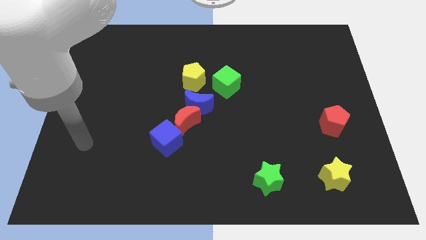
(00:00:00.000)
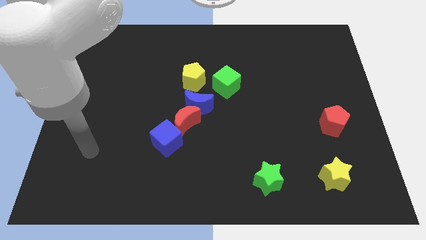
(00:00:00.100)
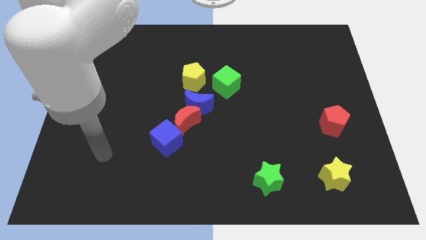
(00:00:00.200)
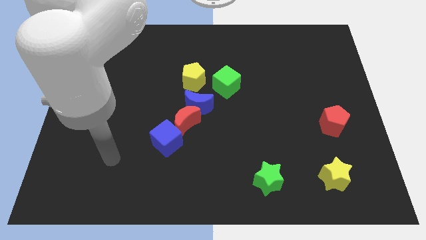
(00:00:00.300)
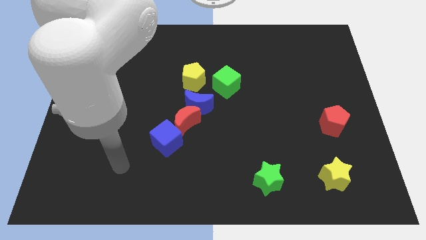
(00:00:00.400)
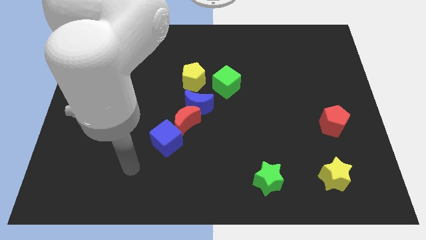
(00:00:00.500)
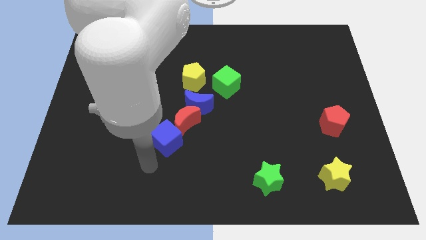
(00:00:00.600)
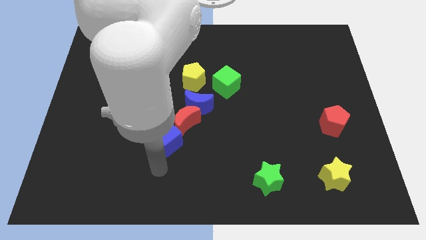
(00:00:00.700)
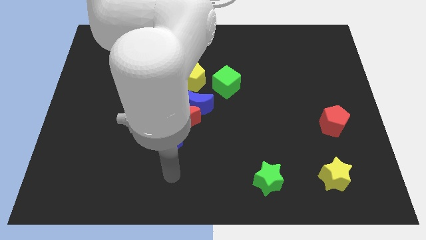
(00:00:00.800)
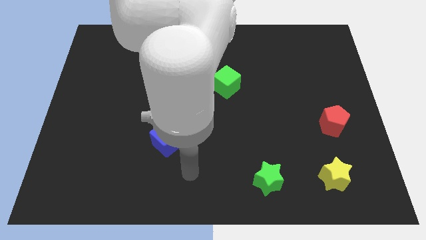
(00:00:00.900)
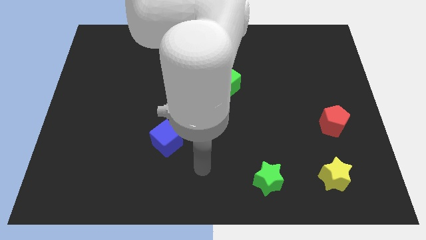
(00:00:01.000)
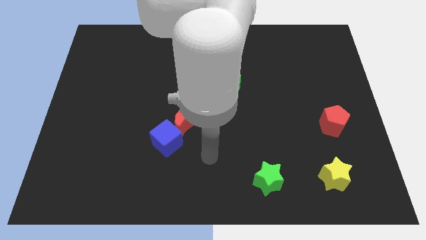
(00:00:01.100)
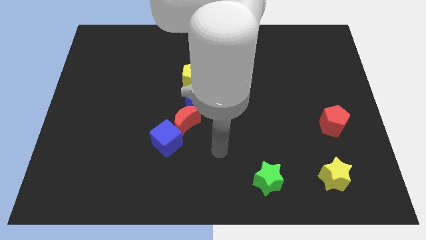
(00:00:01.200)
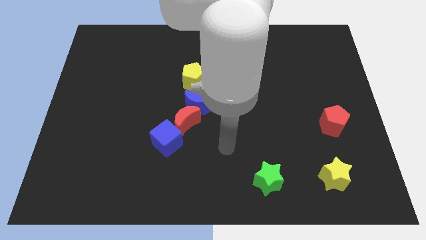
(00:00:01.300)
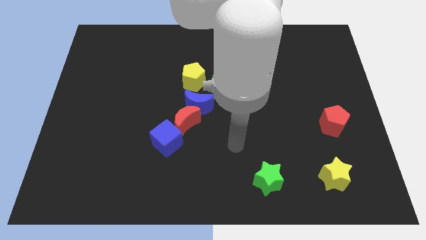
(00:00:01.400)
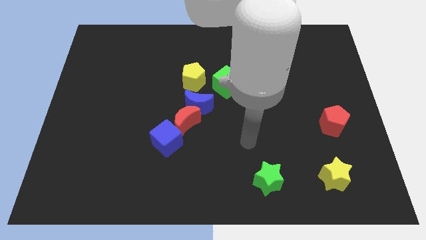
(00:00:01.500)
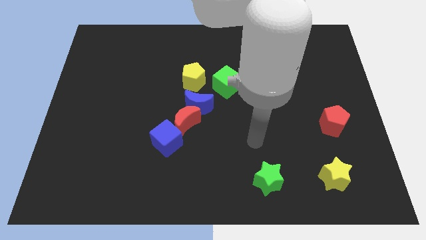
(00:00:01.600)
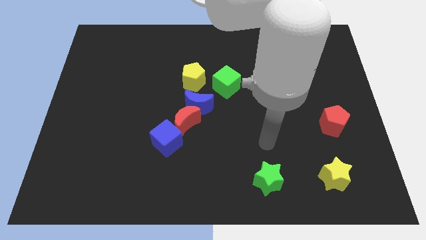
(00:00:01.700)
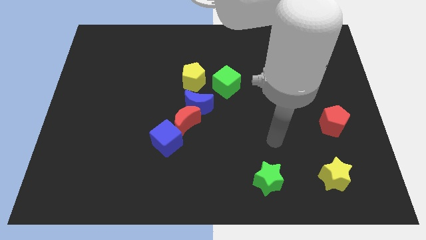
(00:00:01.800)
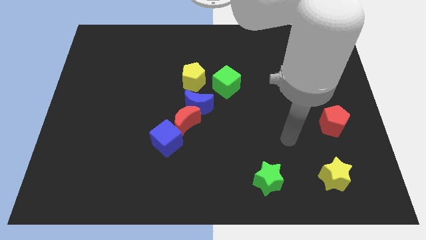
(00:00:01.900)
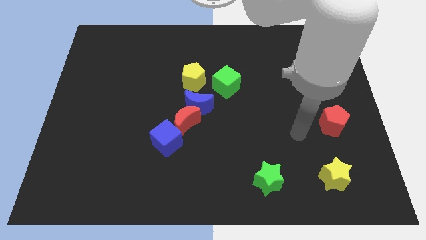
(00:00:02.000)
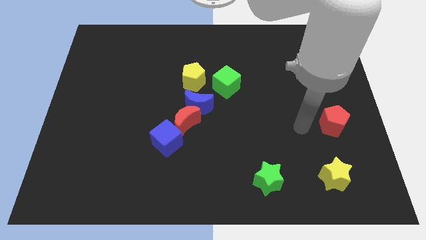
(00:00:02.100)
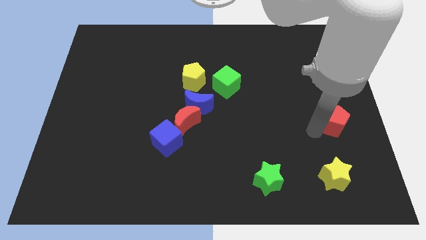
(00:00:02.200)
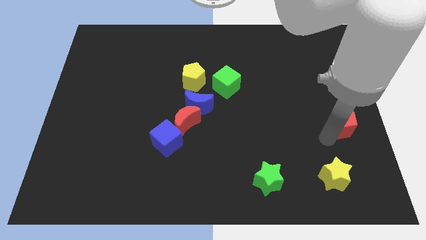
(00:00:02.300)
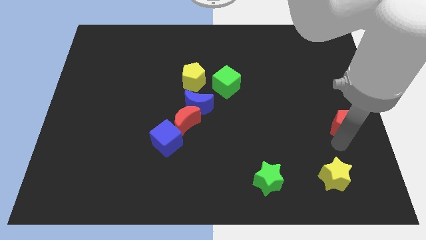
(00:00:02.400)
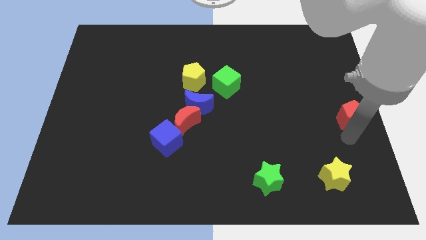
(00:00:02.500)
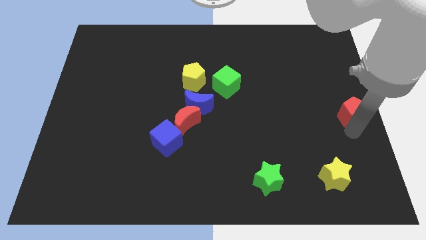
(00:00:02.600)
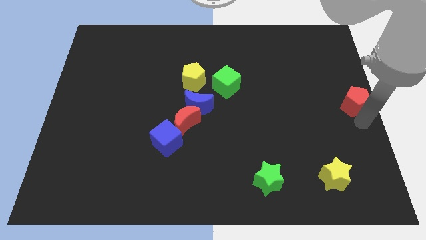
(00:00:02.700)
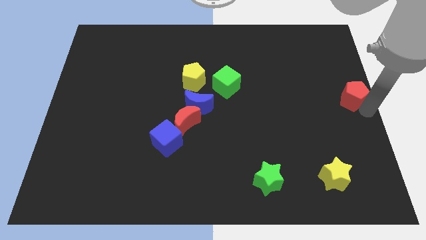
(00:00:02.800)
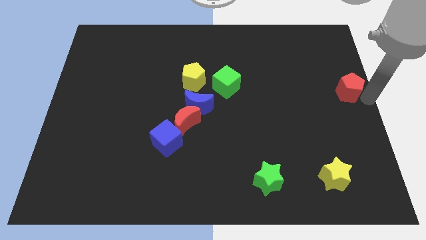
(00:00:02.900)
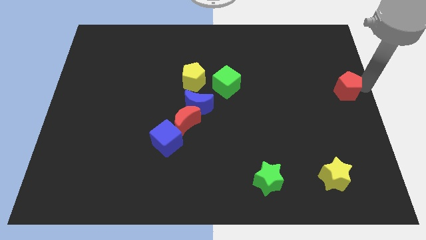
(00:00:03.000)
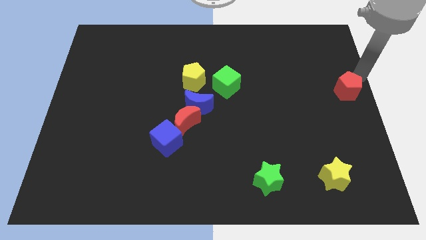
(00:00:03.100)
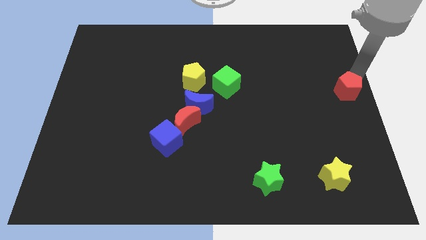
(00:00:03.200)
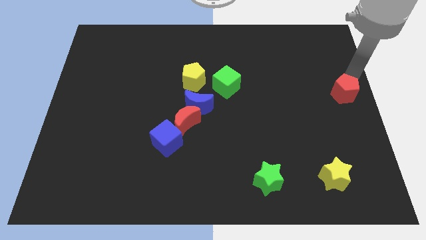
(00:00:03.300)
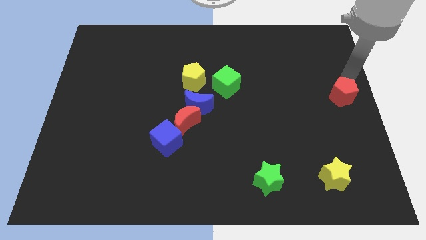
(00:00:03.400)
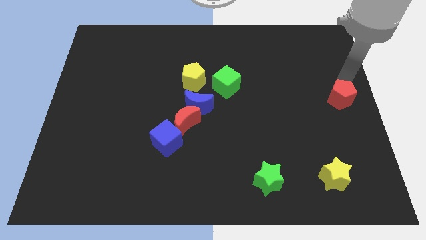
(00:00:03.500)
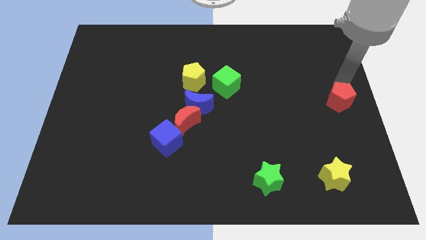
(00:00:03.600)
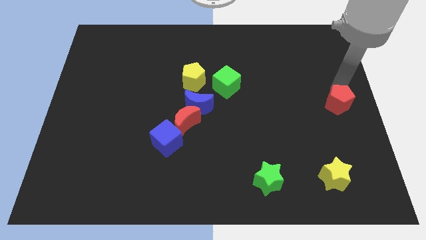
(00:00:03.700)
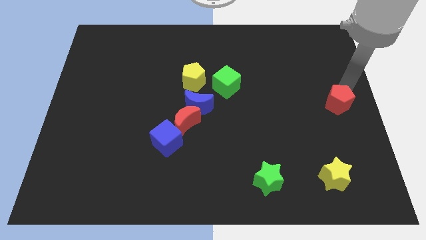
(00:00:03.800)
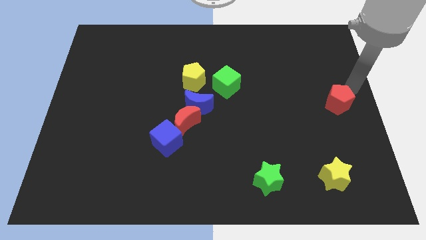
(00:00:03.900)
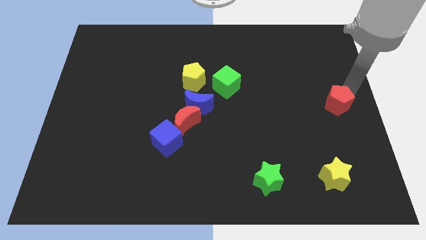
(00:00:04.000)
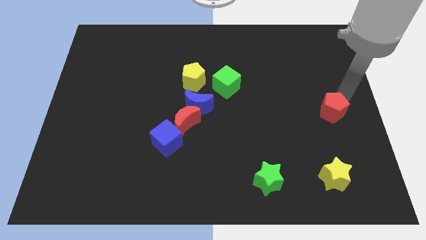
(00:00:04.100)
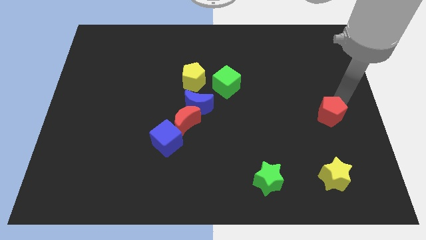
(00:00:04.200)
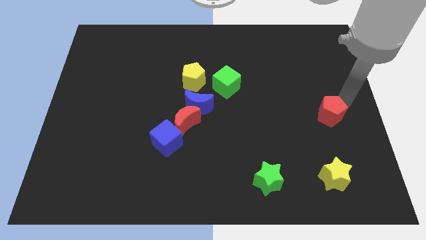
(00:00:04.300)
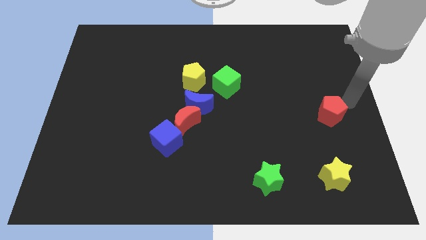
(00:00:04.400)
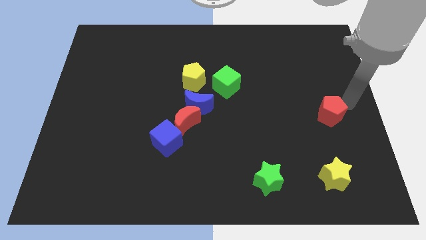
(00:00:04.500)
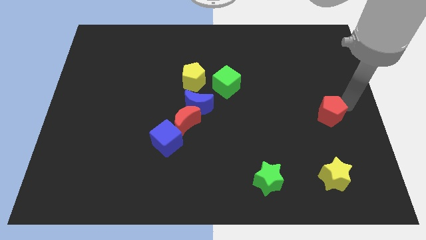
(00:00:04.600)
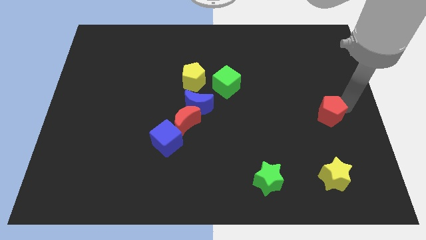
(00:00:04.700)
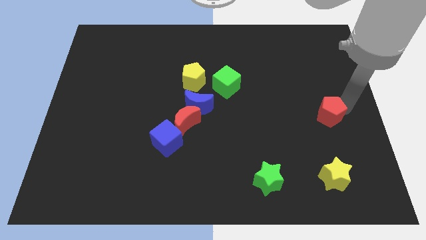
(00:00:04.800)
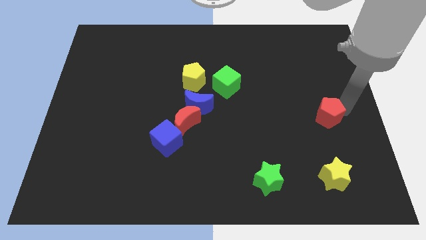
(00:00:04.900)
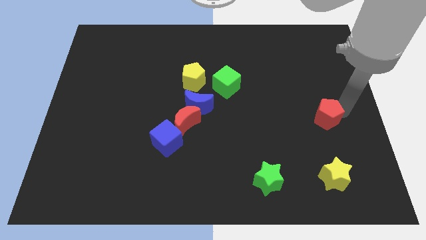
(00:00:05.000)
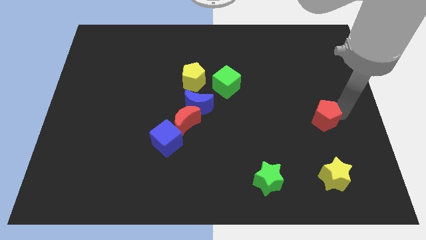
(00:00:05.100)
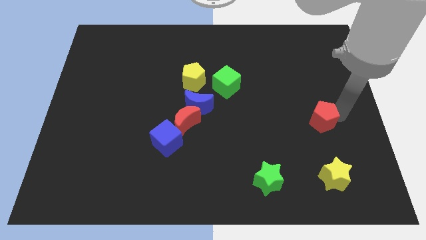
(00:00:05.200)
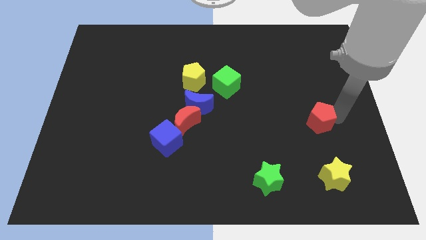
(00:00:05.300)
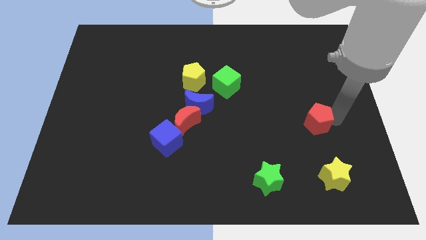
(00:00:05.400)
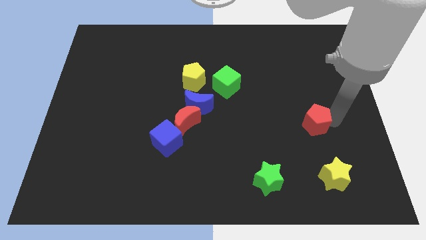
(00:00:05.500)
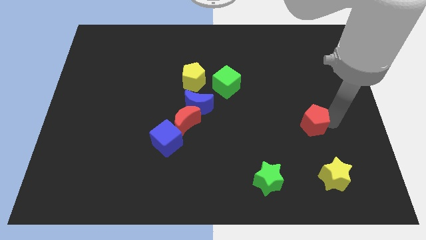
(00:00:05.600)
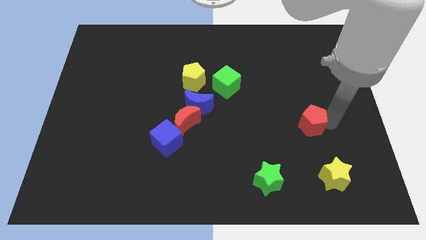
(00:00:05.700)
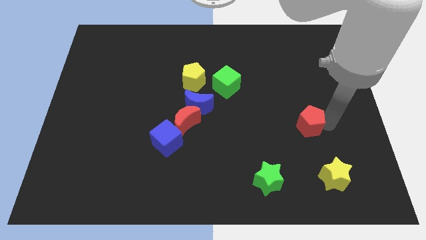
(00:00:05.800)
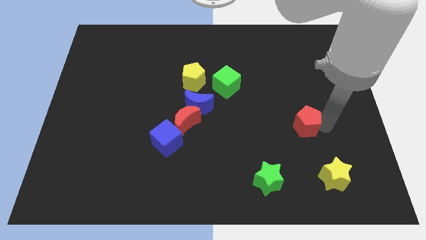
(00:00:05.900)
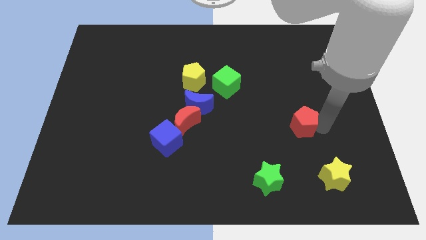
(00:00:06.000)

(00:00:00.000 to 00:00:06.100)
slide the red pentagon a little bit left

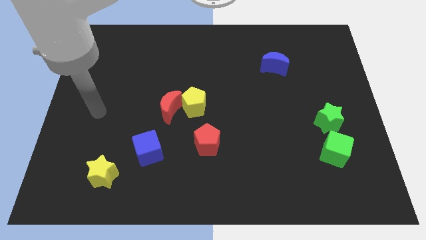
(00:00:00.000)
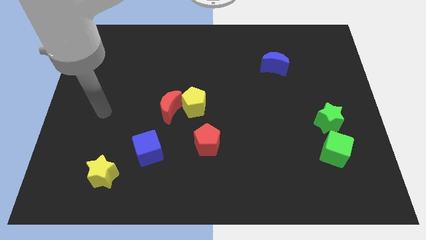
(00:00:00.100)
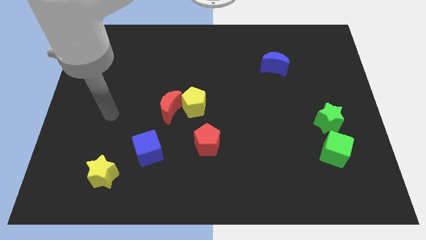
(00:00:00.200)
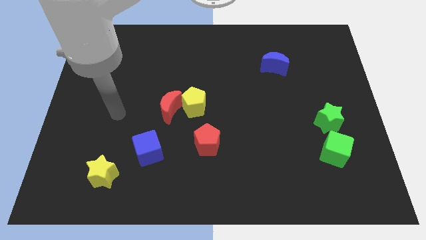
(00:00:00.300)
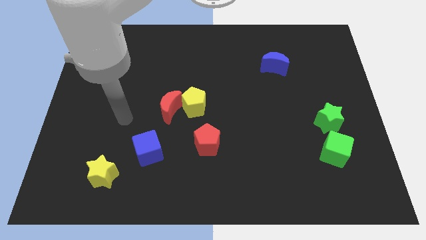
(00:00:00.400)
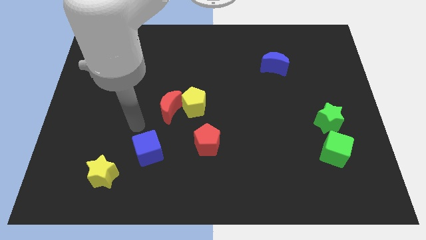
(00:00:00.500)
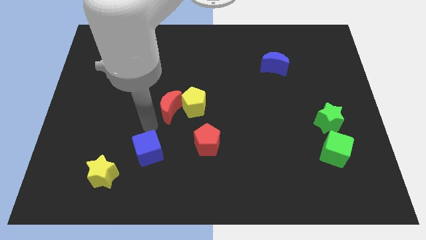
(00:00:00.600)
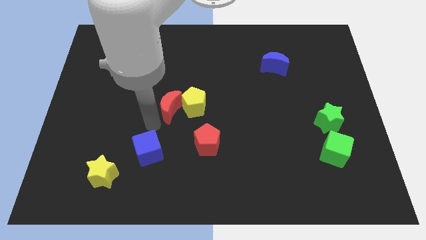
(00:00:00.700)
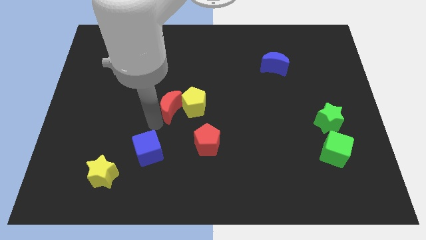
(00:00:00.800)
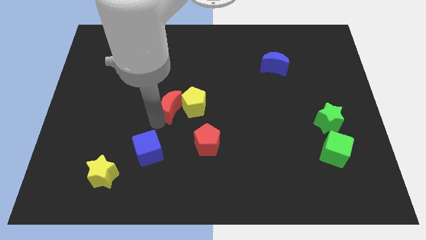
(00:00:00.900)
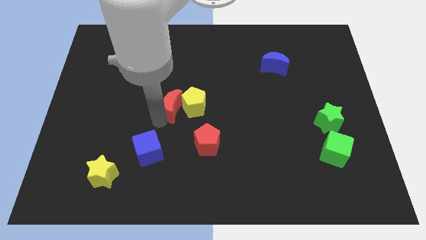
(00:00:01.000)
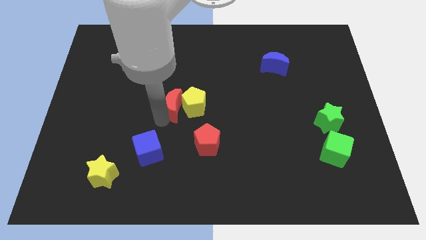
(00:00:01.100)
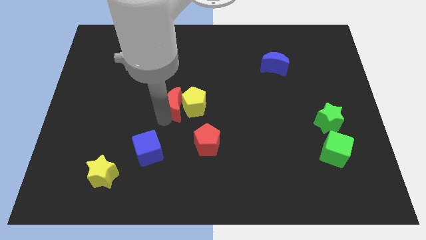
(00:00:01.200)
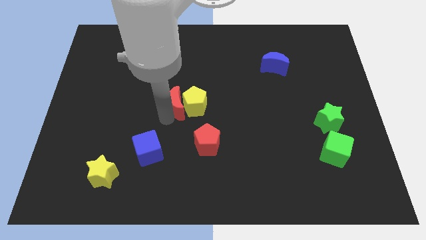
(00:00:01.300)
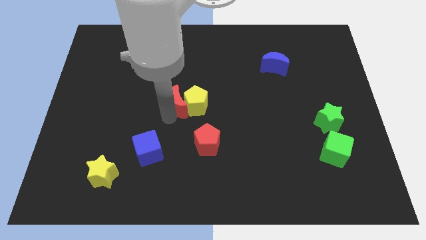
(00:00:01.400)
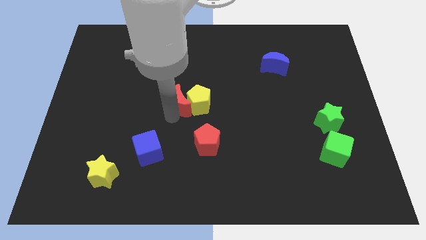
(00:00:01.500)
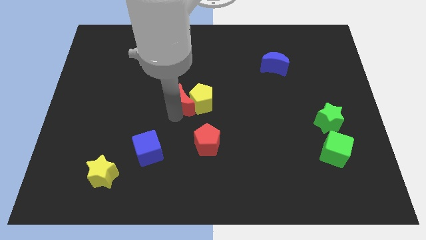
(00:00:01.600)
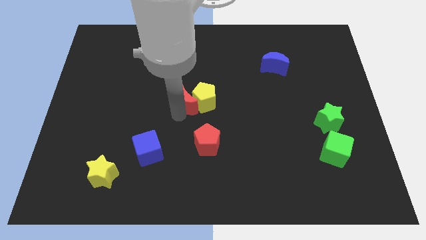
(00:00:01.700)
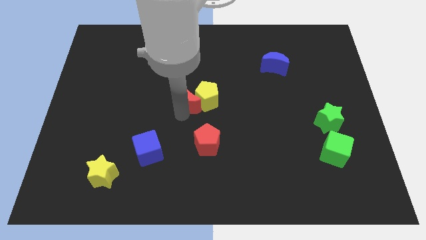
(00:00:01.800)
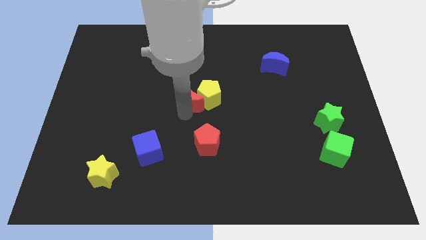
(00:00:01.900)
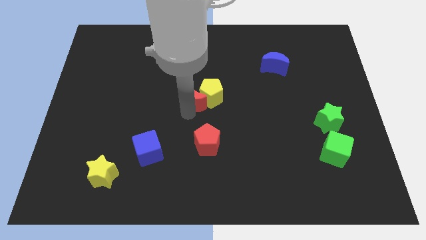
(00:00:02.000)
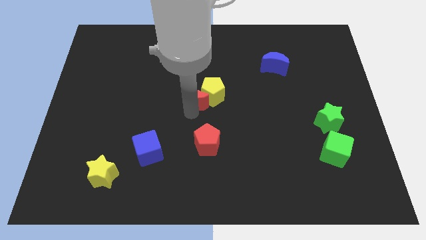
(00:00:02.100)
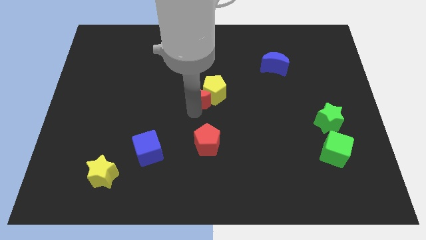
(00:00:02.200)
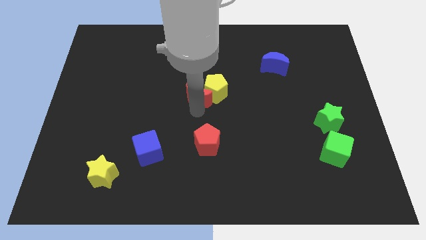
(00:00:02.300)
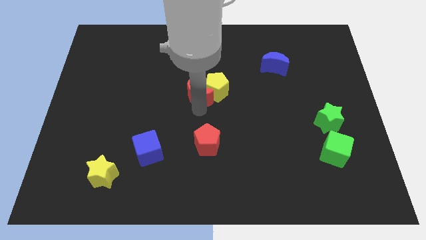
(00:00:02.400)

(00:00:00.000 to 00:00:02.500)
move the red moon a little up and then to the right
